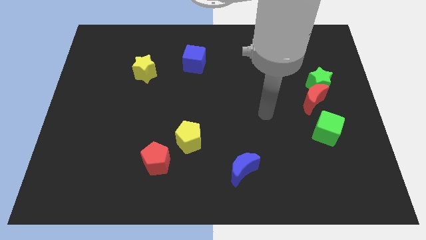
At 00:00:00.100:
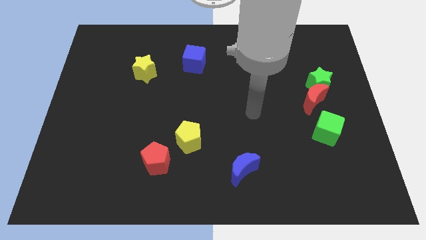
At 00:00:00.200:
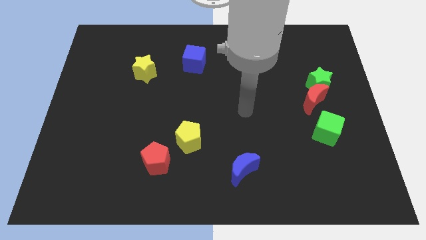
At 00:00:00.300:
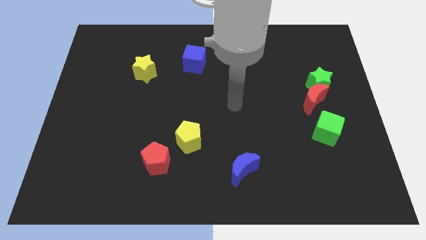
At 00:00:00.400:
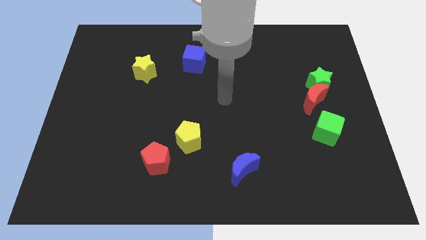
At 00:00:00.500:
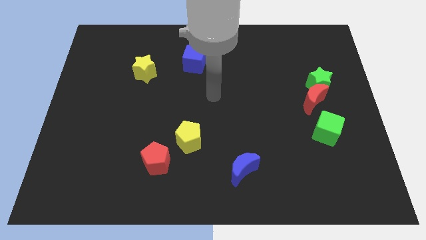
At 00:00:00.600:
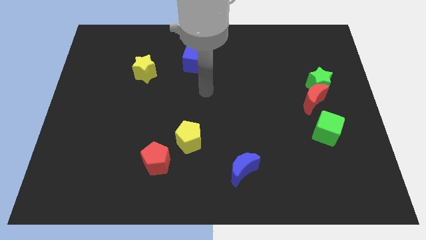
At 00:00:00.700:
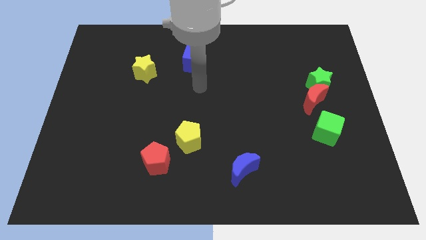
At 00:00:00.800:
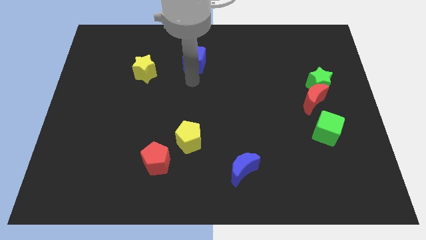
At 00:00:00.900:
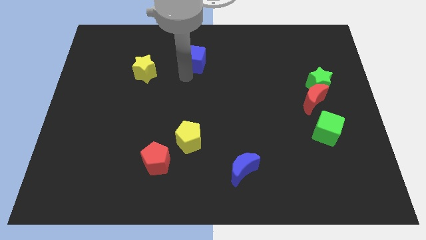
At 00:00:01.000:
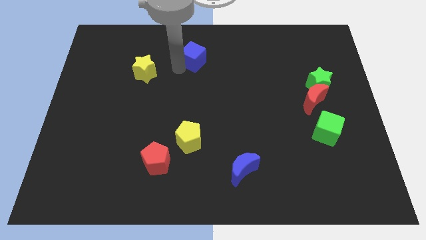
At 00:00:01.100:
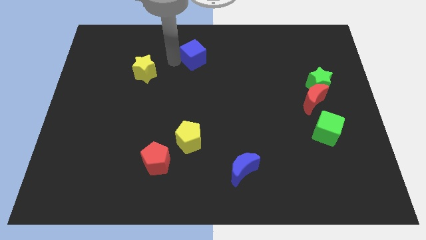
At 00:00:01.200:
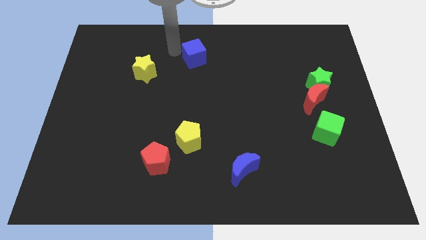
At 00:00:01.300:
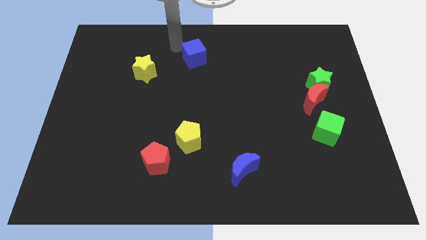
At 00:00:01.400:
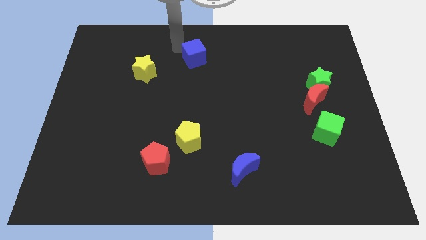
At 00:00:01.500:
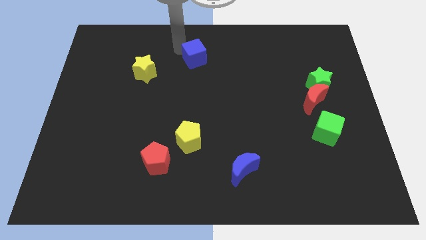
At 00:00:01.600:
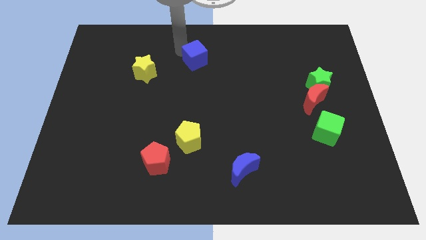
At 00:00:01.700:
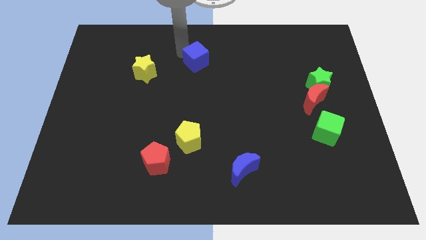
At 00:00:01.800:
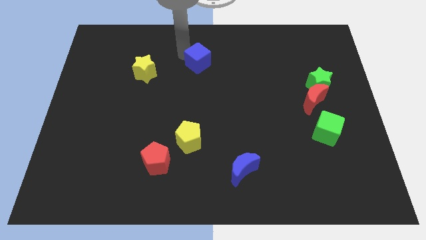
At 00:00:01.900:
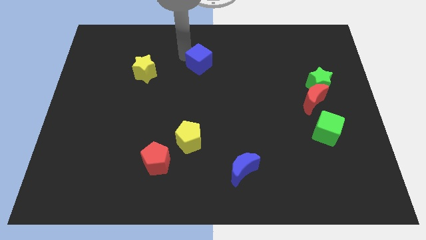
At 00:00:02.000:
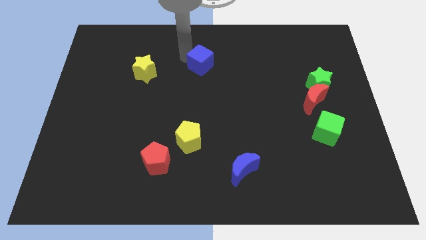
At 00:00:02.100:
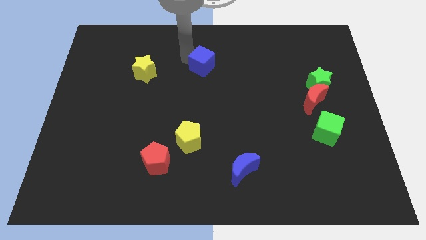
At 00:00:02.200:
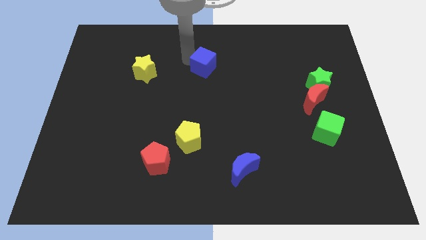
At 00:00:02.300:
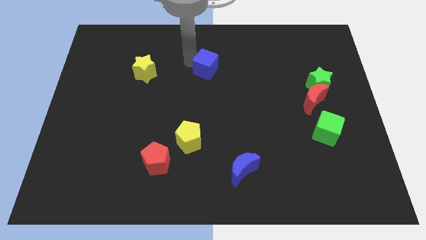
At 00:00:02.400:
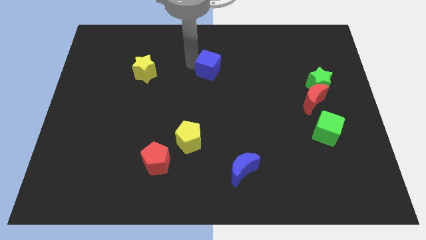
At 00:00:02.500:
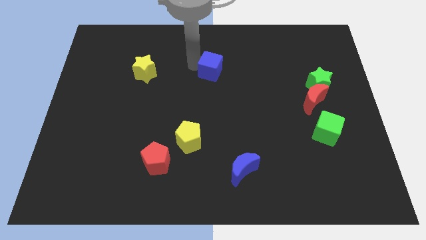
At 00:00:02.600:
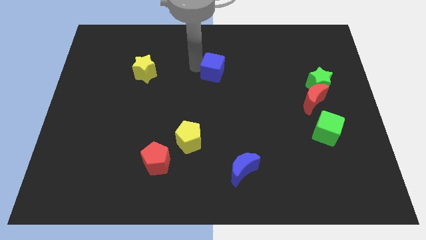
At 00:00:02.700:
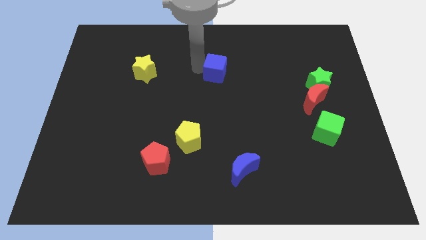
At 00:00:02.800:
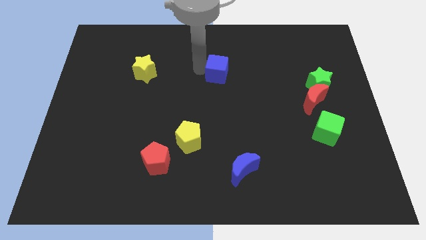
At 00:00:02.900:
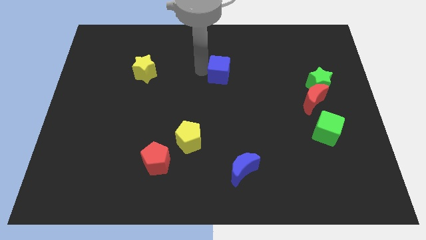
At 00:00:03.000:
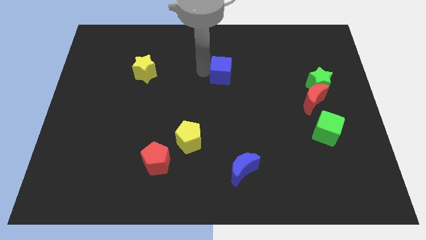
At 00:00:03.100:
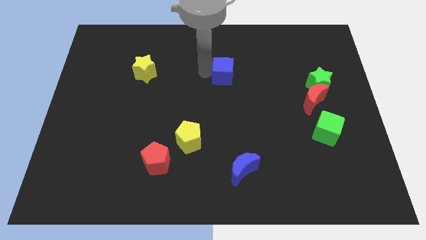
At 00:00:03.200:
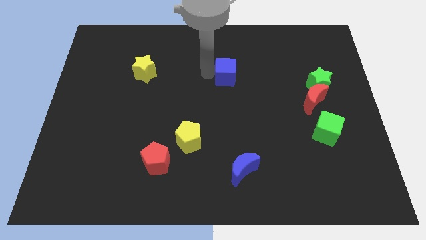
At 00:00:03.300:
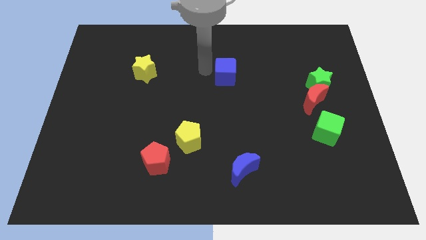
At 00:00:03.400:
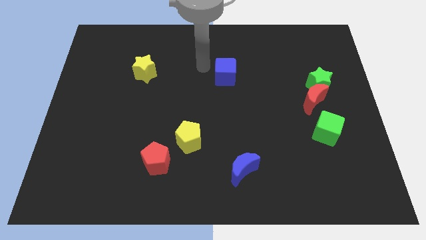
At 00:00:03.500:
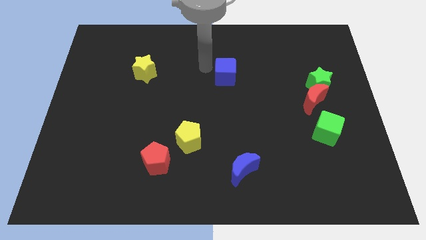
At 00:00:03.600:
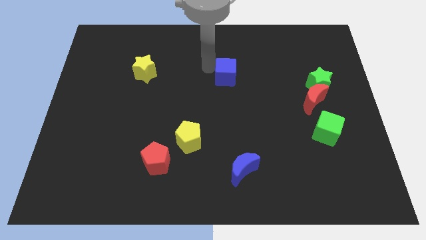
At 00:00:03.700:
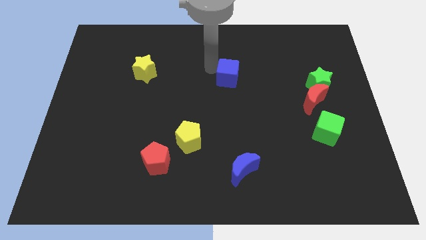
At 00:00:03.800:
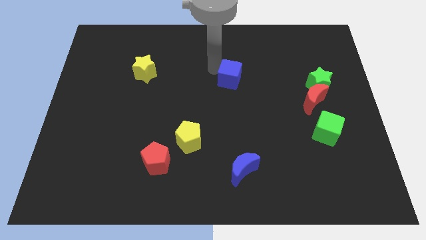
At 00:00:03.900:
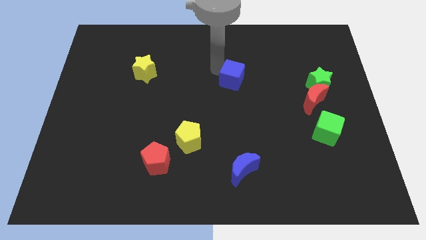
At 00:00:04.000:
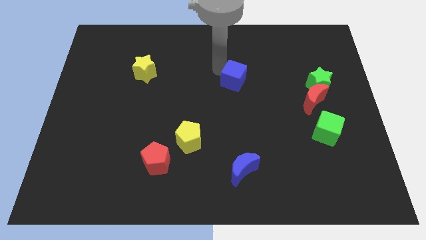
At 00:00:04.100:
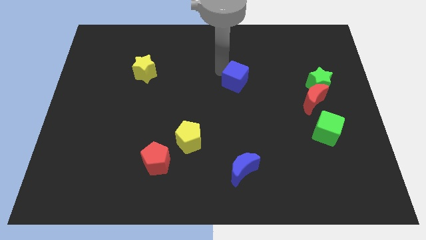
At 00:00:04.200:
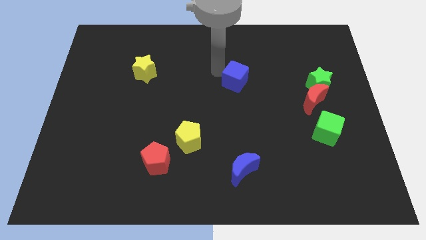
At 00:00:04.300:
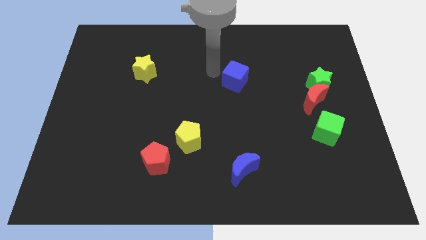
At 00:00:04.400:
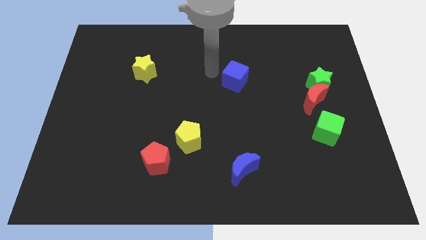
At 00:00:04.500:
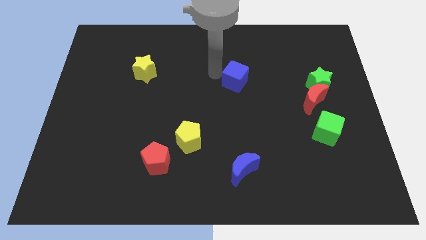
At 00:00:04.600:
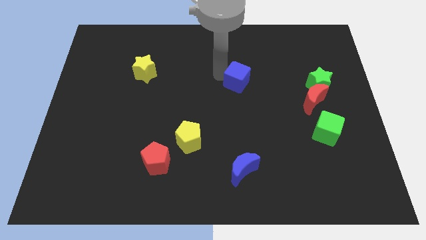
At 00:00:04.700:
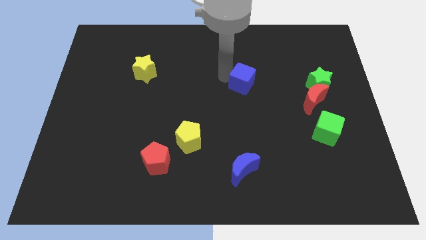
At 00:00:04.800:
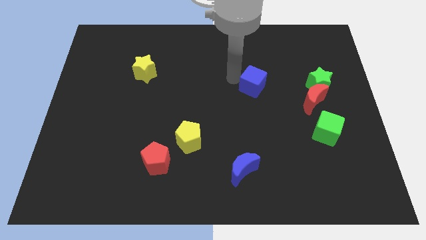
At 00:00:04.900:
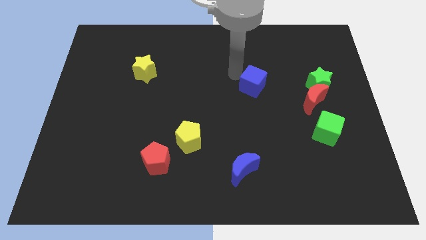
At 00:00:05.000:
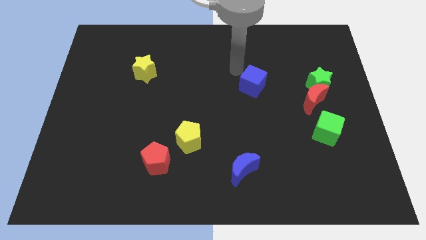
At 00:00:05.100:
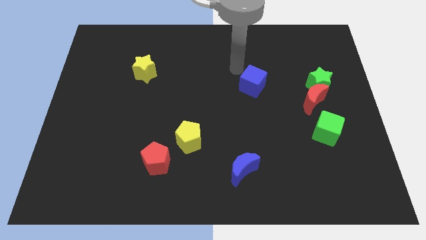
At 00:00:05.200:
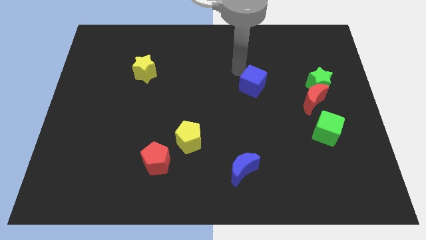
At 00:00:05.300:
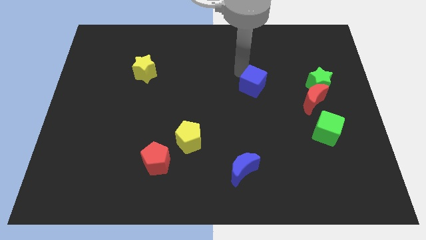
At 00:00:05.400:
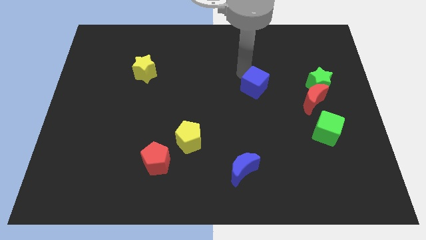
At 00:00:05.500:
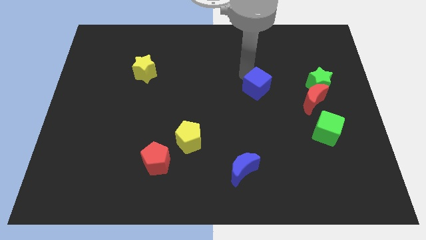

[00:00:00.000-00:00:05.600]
put the blue cube just left of the red moon

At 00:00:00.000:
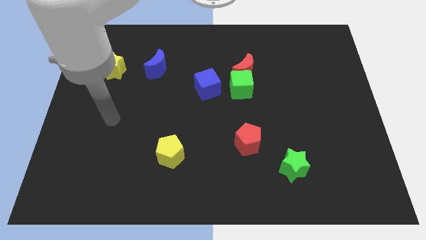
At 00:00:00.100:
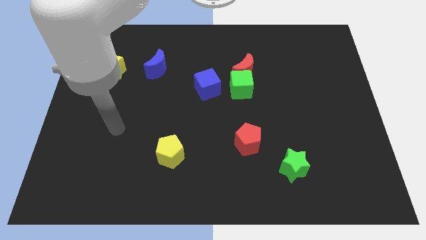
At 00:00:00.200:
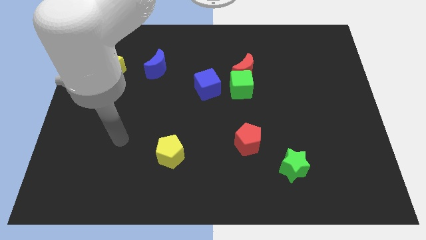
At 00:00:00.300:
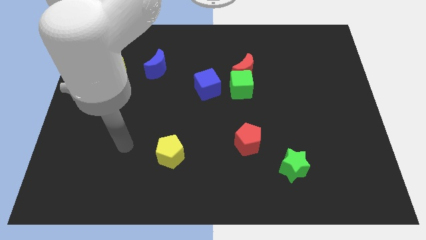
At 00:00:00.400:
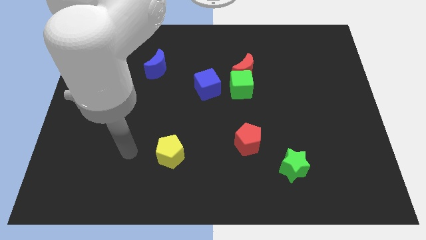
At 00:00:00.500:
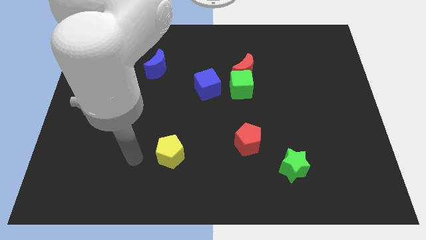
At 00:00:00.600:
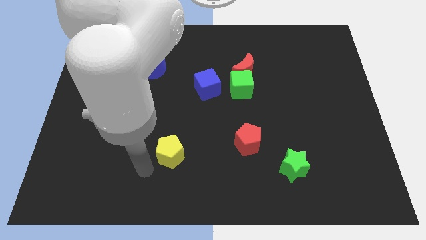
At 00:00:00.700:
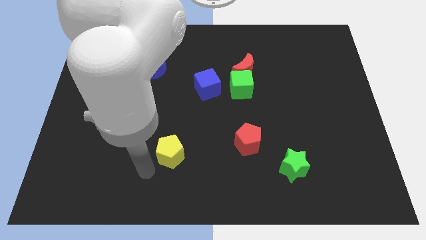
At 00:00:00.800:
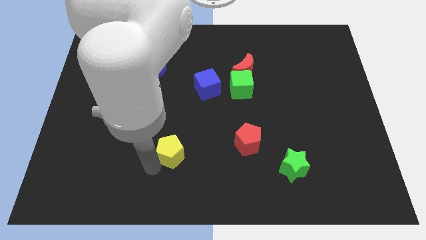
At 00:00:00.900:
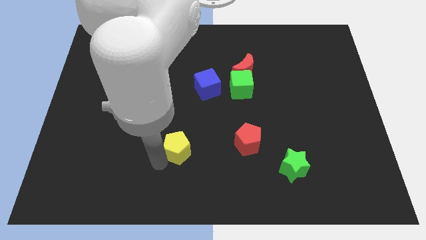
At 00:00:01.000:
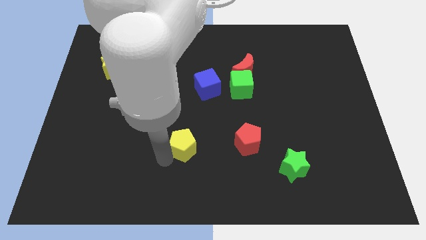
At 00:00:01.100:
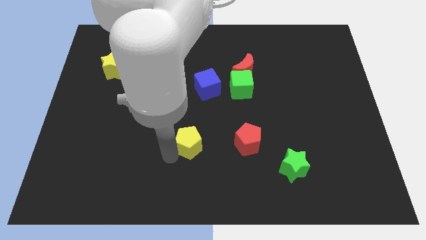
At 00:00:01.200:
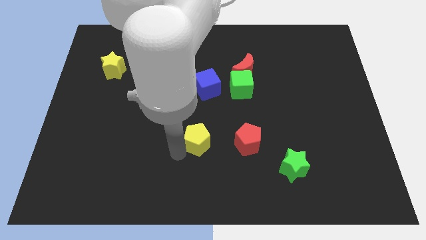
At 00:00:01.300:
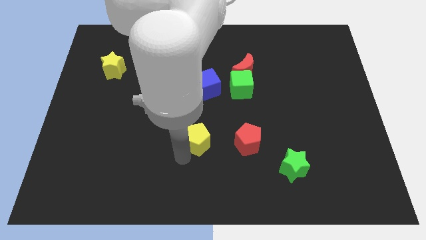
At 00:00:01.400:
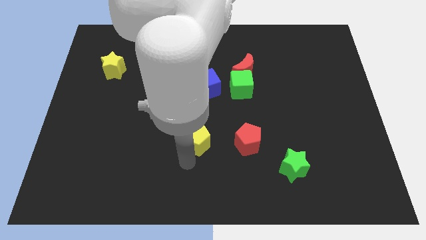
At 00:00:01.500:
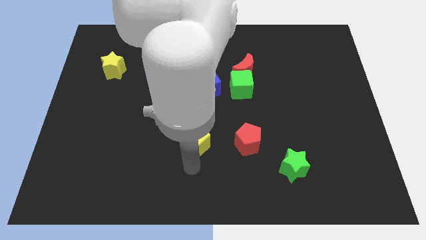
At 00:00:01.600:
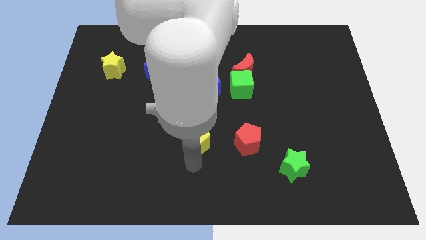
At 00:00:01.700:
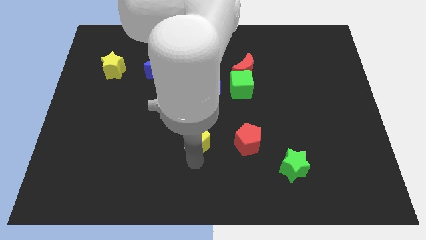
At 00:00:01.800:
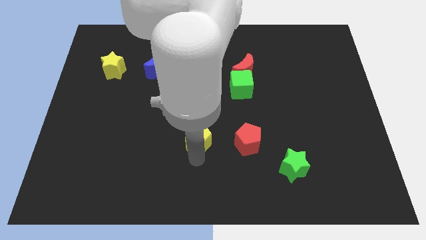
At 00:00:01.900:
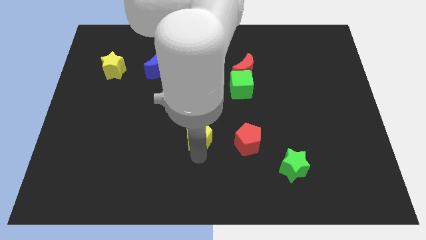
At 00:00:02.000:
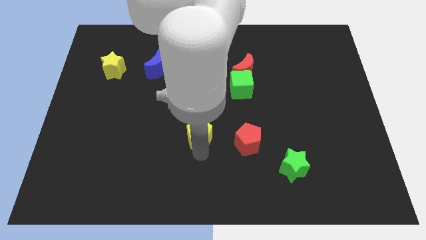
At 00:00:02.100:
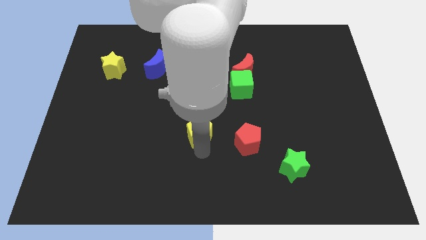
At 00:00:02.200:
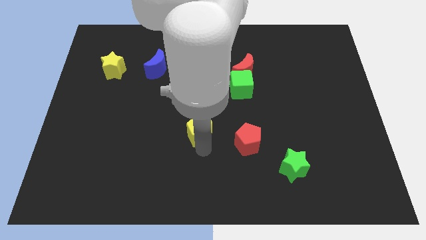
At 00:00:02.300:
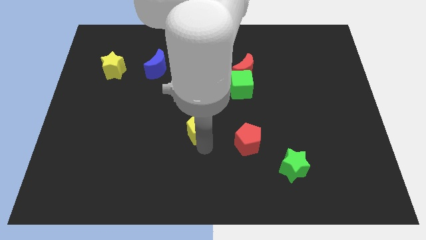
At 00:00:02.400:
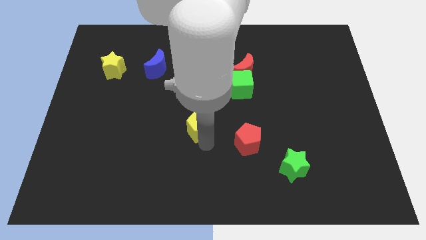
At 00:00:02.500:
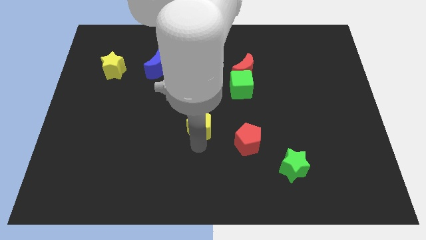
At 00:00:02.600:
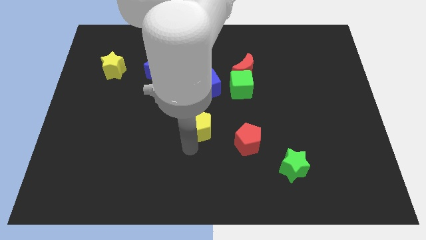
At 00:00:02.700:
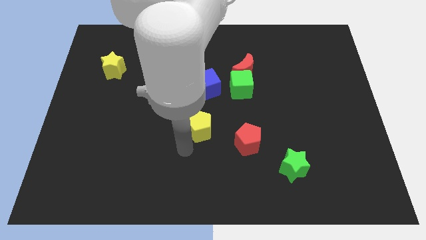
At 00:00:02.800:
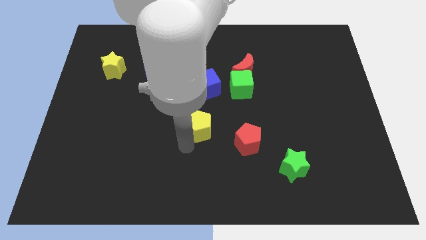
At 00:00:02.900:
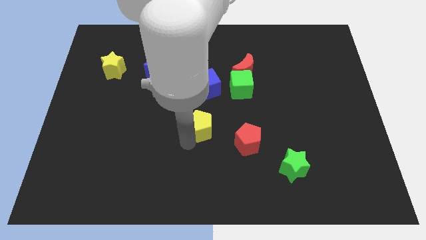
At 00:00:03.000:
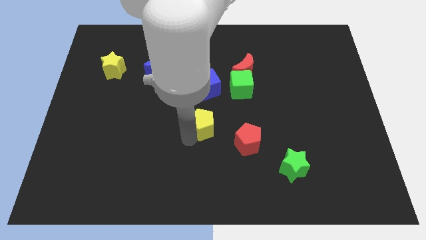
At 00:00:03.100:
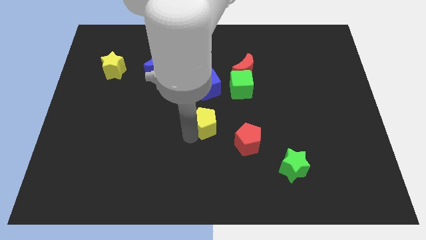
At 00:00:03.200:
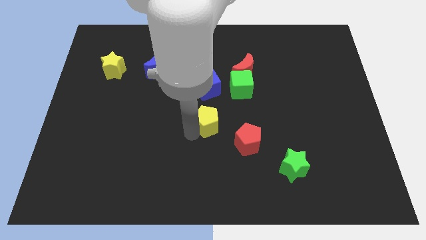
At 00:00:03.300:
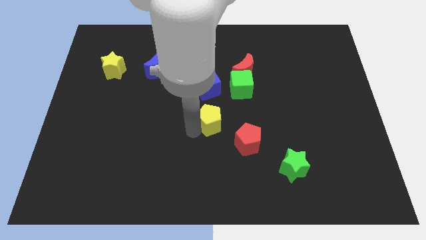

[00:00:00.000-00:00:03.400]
move the yellow pentagon to the bottom left side of the green cube
